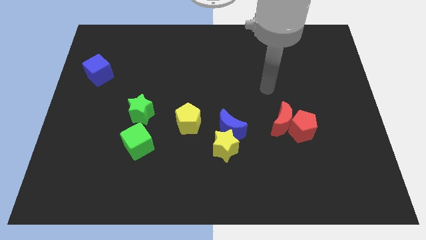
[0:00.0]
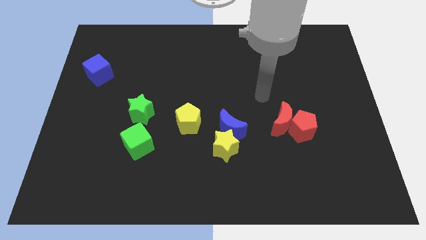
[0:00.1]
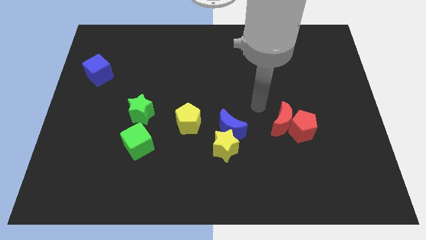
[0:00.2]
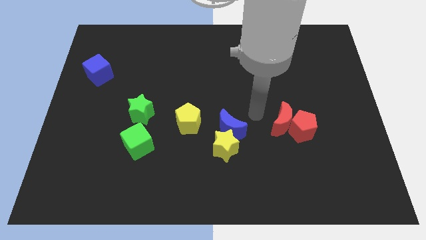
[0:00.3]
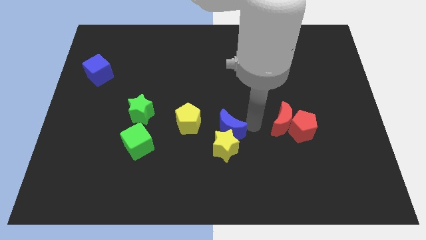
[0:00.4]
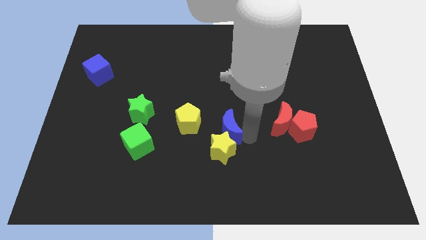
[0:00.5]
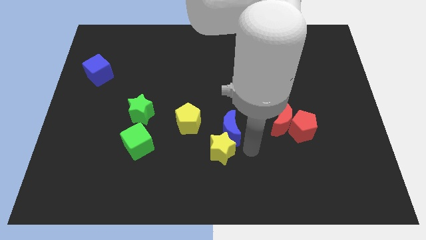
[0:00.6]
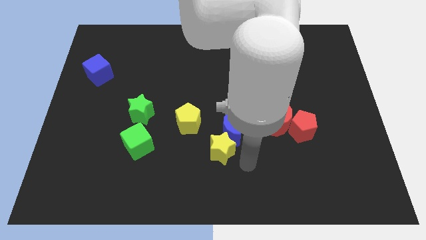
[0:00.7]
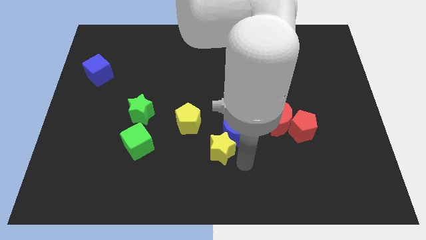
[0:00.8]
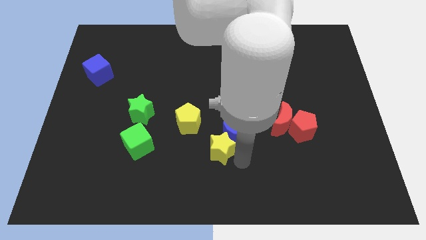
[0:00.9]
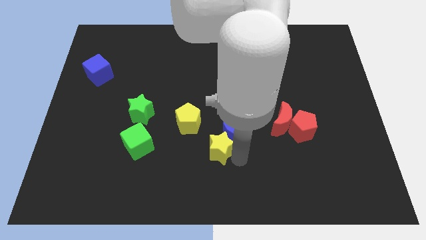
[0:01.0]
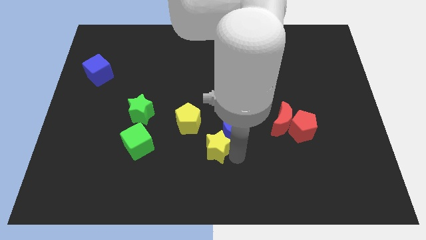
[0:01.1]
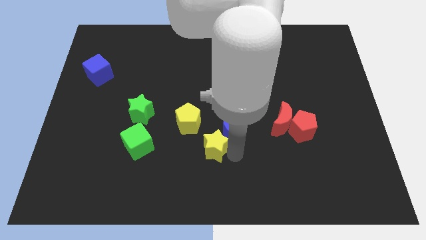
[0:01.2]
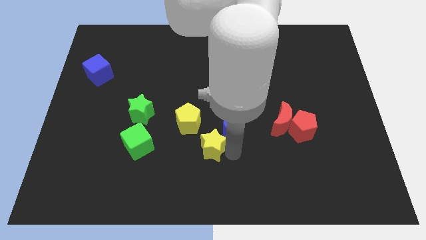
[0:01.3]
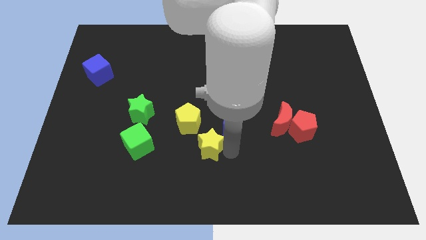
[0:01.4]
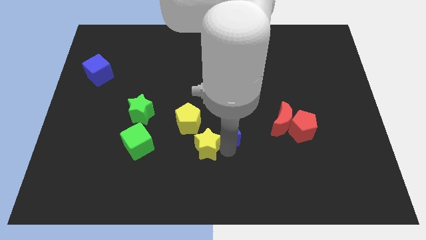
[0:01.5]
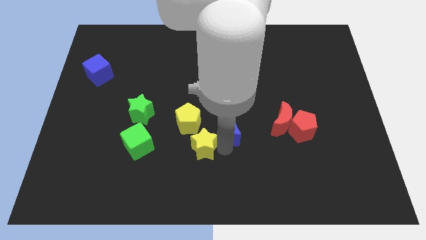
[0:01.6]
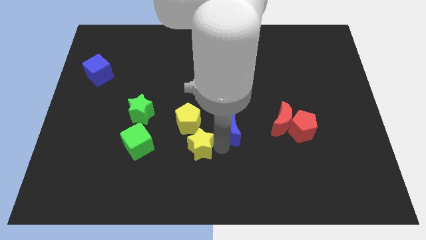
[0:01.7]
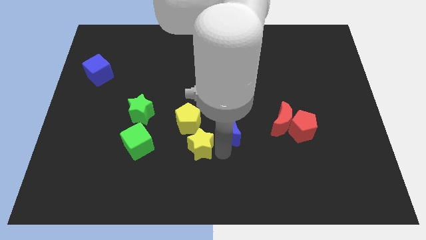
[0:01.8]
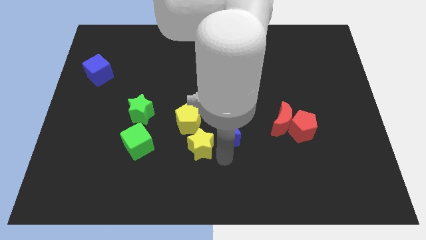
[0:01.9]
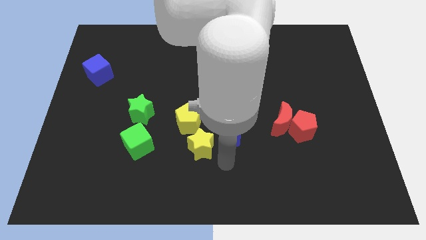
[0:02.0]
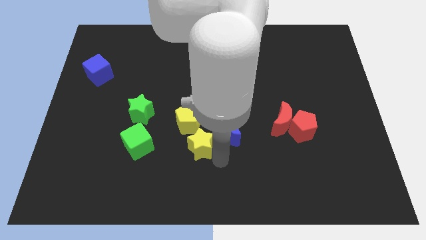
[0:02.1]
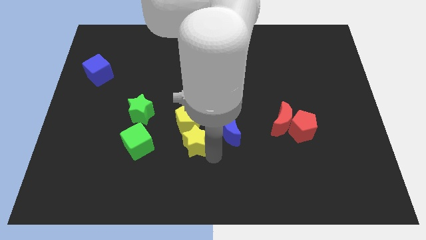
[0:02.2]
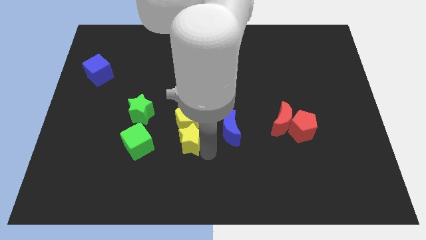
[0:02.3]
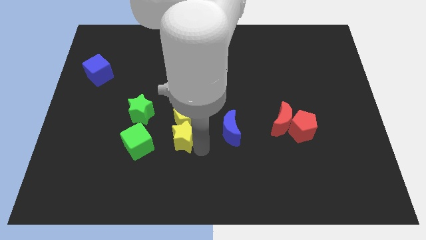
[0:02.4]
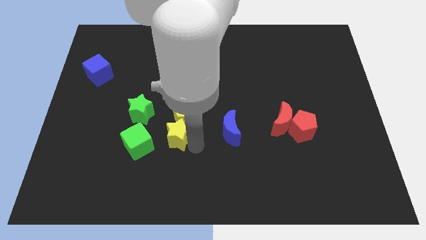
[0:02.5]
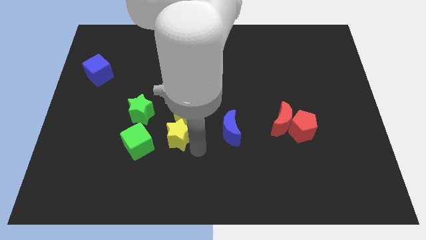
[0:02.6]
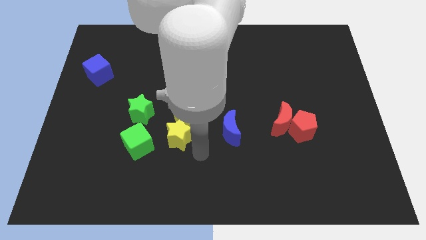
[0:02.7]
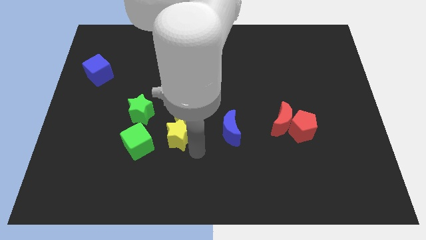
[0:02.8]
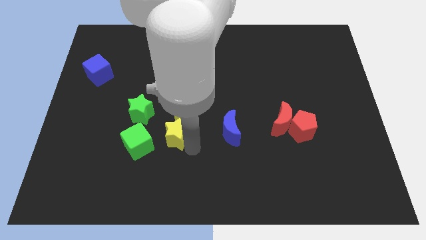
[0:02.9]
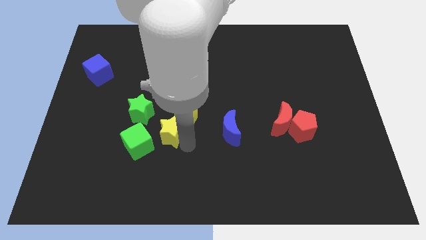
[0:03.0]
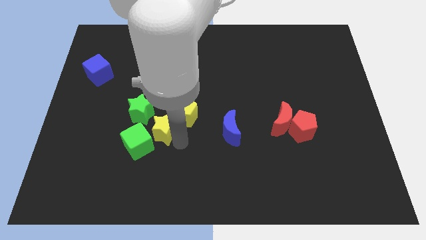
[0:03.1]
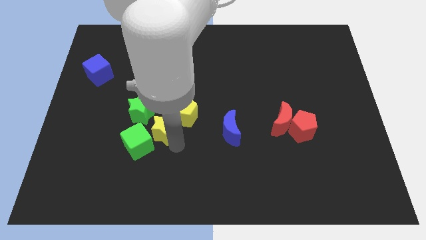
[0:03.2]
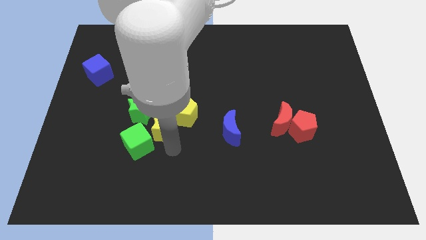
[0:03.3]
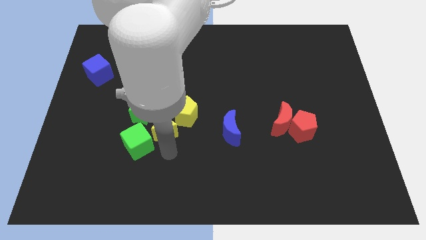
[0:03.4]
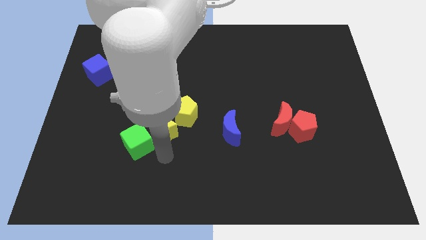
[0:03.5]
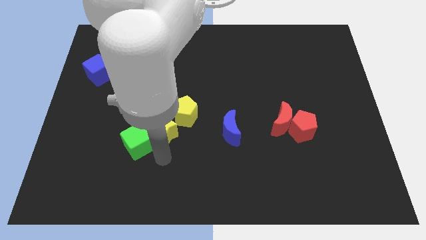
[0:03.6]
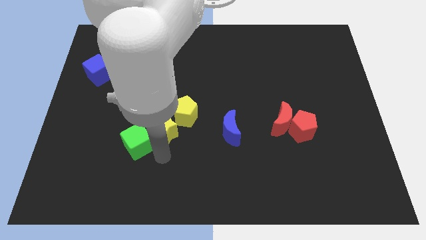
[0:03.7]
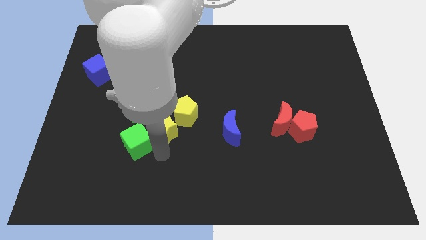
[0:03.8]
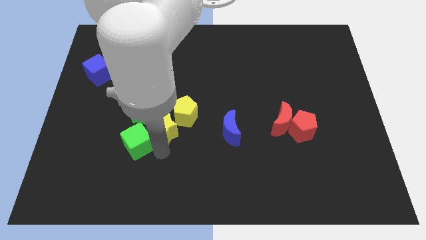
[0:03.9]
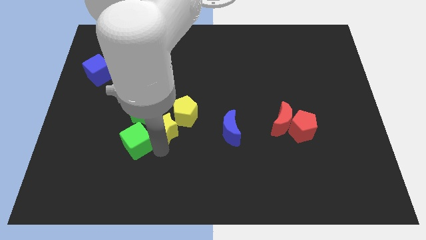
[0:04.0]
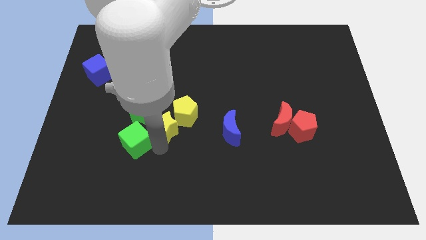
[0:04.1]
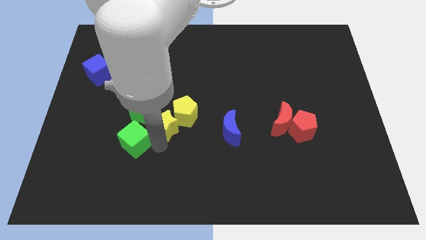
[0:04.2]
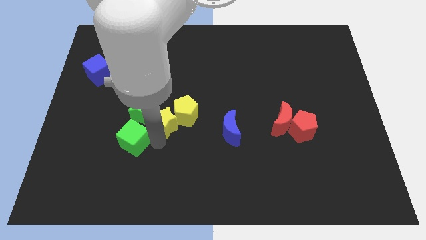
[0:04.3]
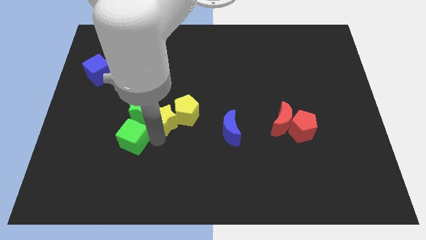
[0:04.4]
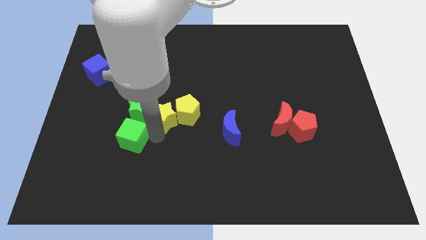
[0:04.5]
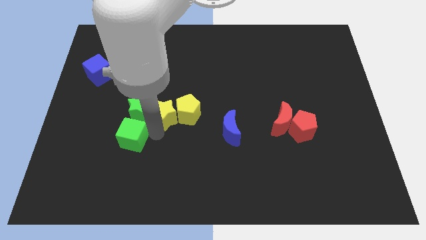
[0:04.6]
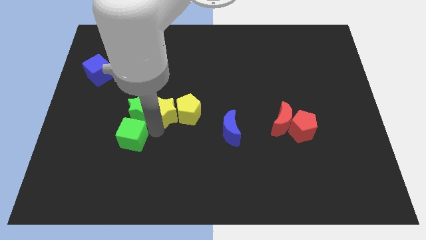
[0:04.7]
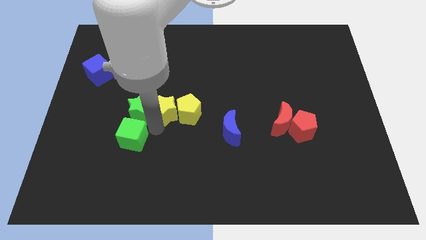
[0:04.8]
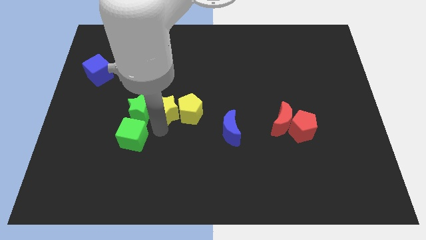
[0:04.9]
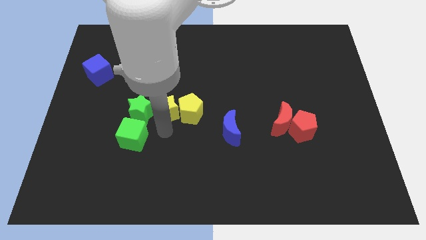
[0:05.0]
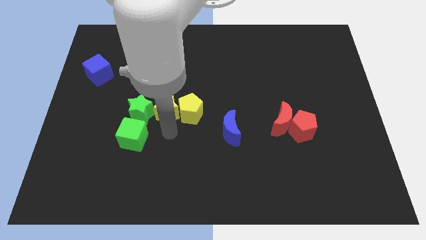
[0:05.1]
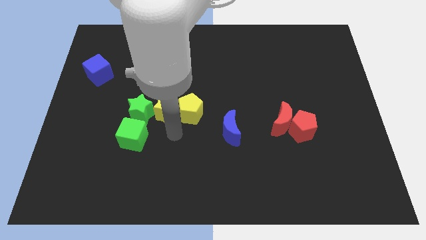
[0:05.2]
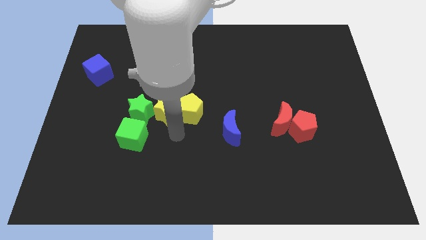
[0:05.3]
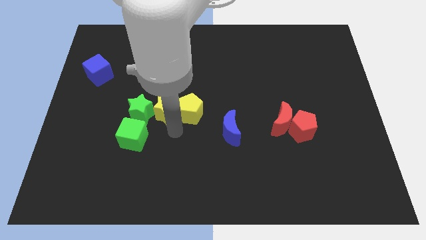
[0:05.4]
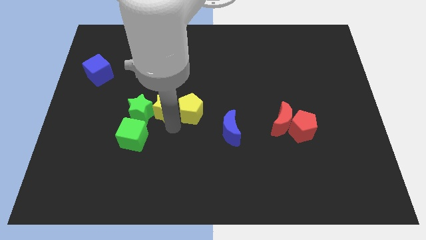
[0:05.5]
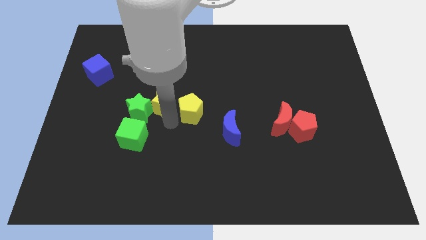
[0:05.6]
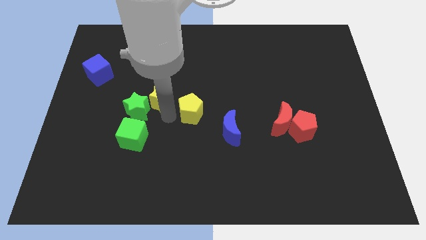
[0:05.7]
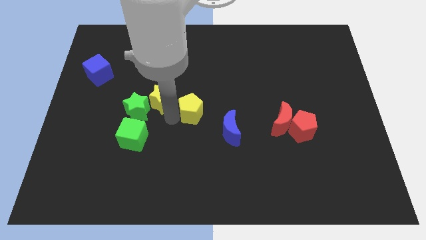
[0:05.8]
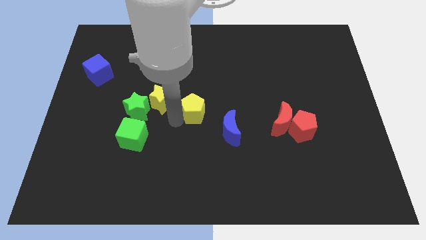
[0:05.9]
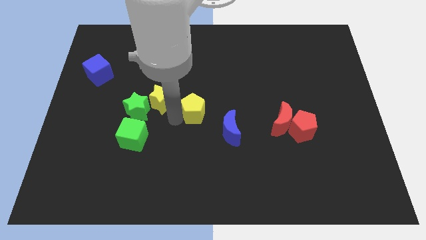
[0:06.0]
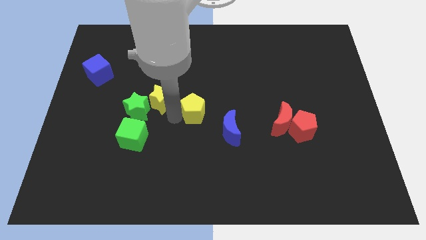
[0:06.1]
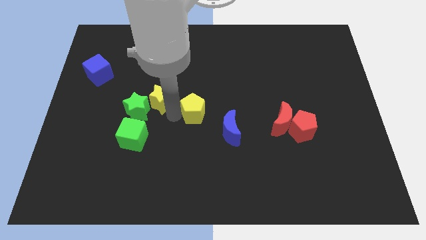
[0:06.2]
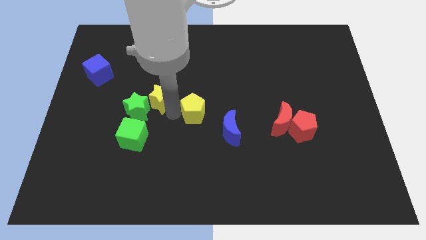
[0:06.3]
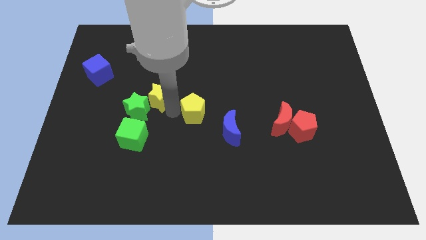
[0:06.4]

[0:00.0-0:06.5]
slide the yellow star up and left diagonally

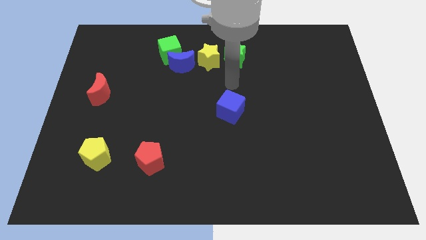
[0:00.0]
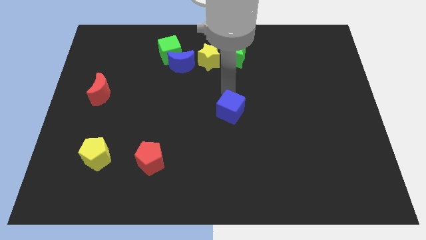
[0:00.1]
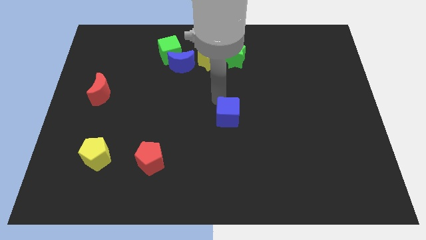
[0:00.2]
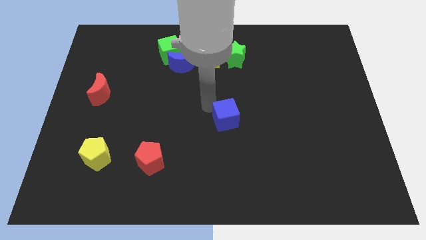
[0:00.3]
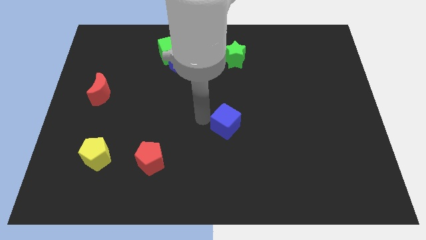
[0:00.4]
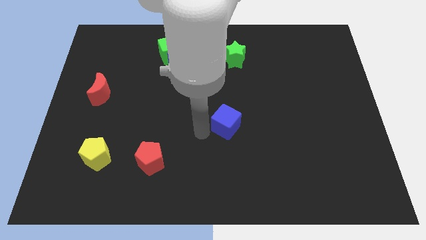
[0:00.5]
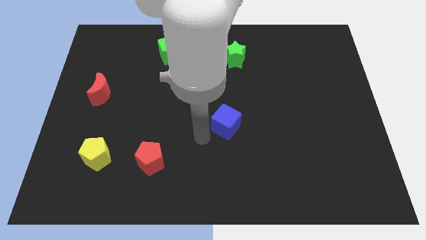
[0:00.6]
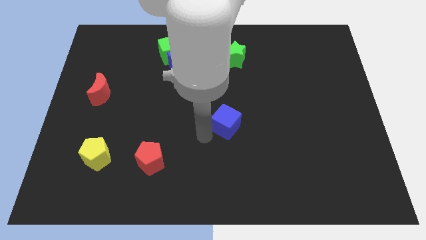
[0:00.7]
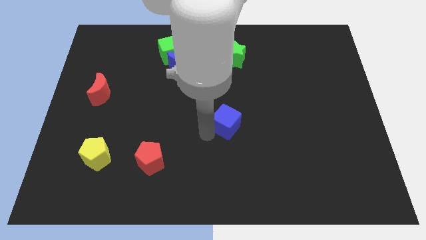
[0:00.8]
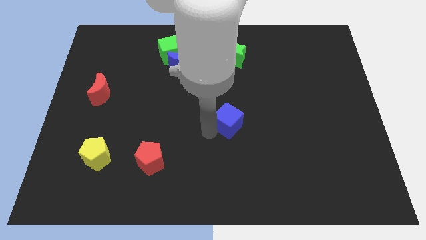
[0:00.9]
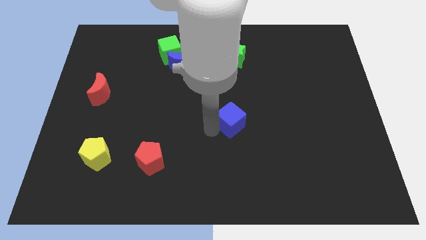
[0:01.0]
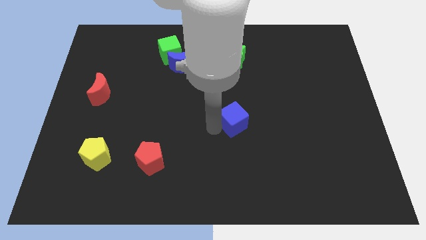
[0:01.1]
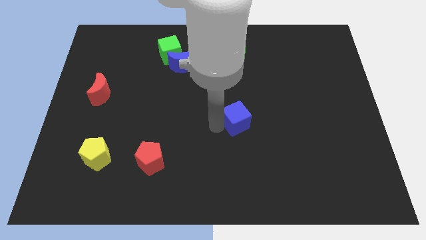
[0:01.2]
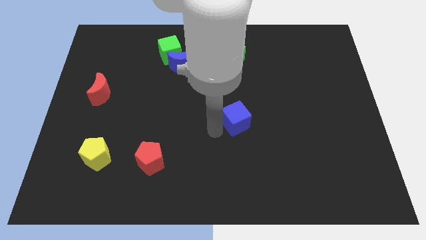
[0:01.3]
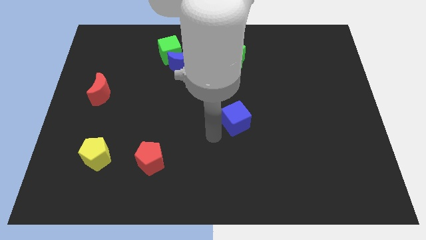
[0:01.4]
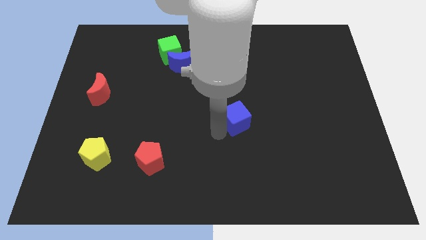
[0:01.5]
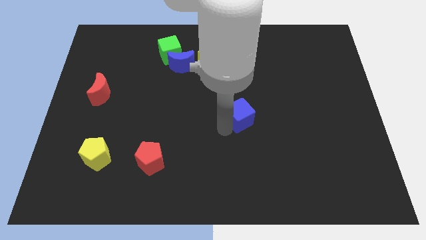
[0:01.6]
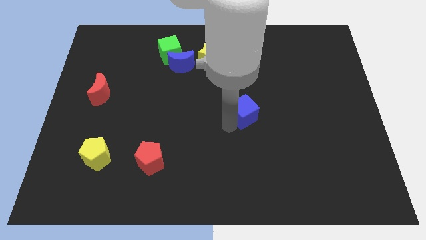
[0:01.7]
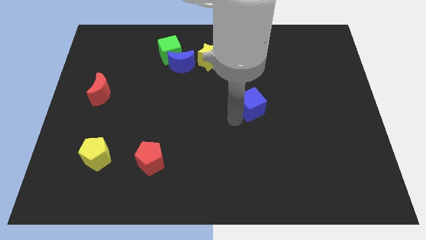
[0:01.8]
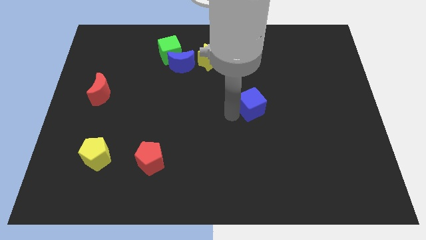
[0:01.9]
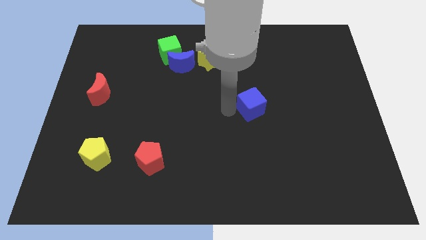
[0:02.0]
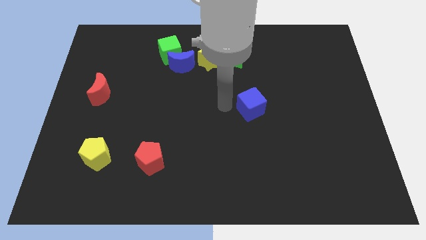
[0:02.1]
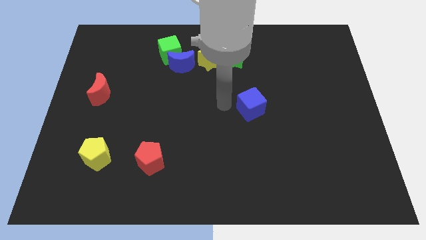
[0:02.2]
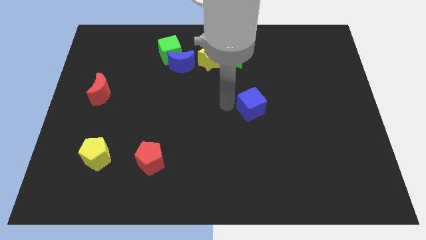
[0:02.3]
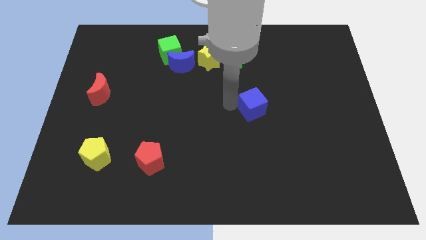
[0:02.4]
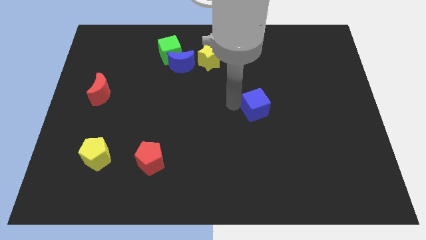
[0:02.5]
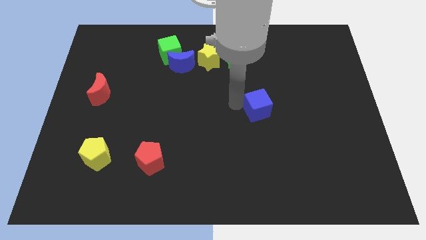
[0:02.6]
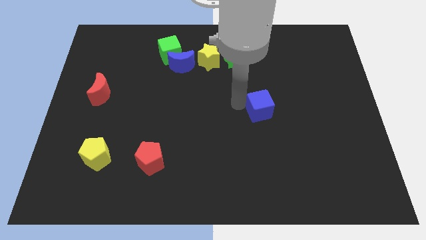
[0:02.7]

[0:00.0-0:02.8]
slide the blue cube a little to the right
